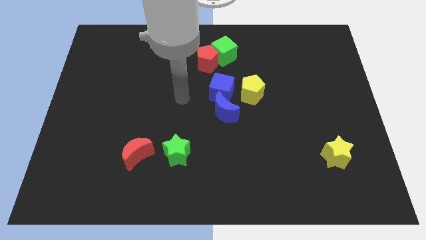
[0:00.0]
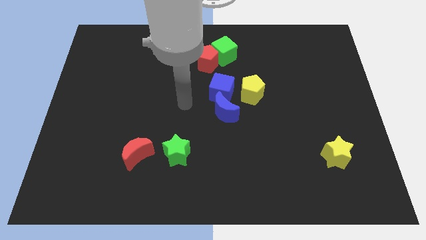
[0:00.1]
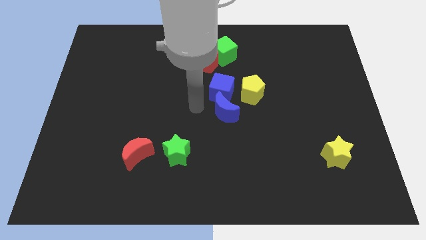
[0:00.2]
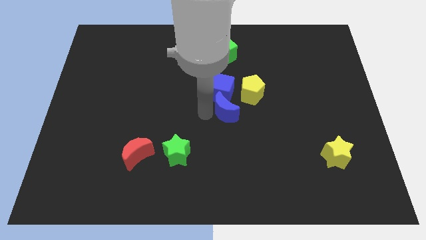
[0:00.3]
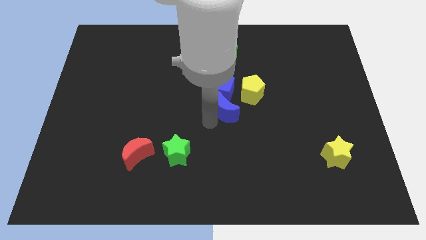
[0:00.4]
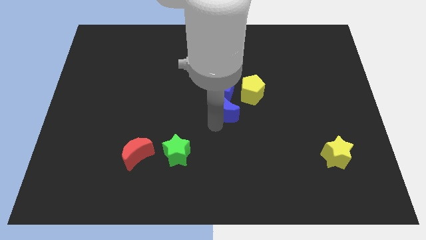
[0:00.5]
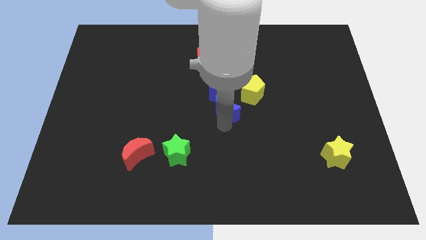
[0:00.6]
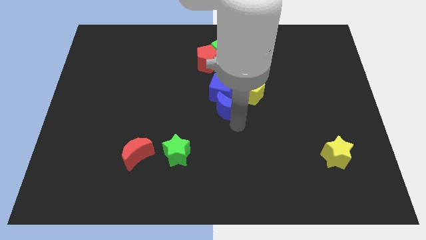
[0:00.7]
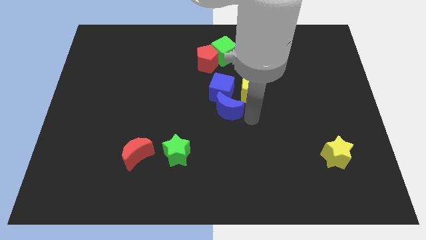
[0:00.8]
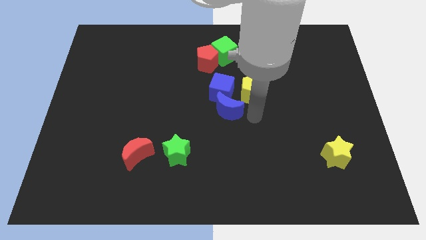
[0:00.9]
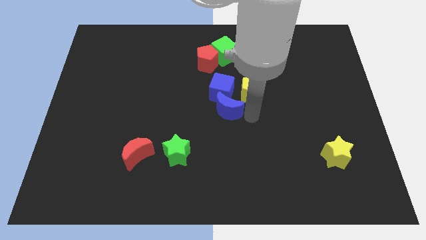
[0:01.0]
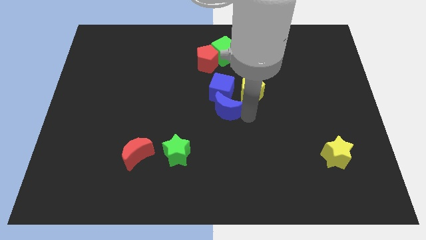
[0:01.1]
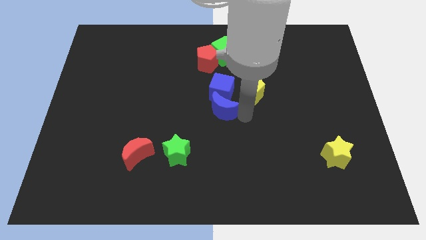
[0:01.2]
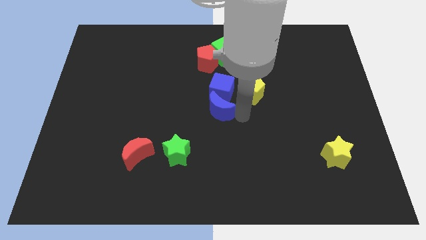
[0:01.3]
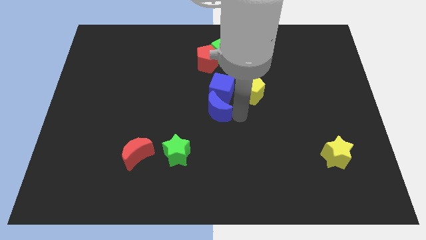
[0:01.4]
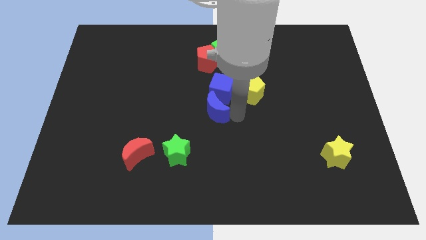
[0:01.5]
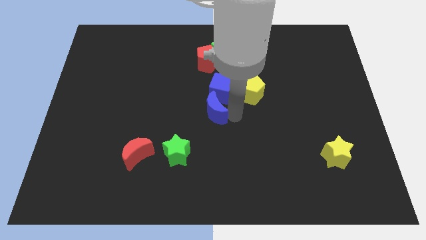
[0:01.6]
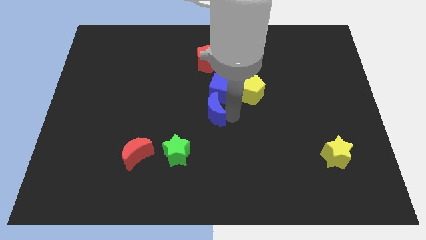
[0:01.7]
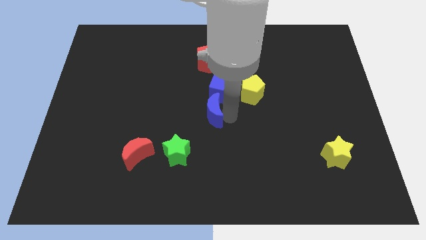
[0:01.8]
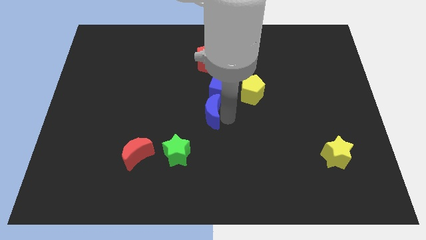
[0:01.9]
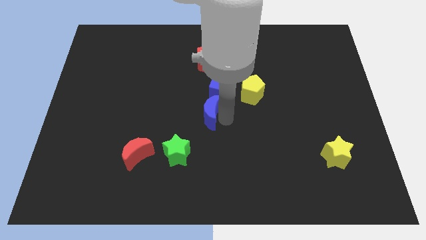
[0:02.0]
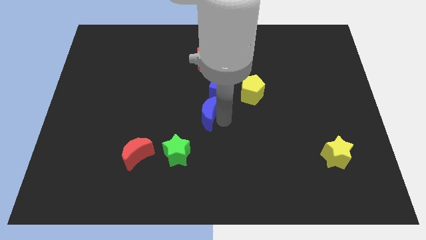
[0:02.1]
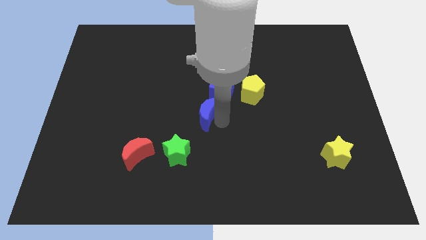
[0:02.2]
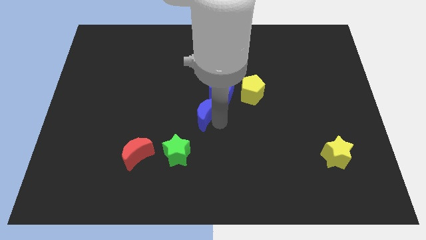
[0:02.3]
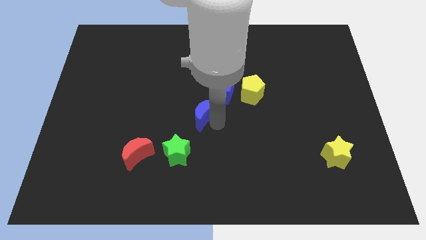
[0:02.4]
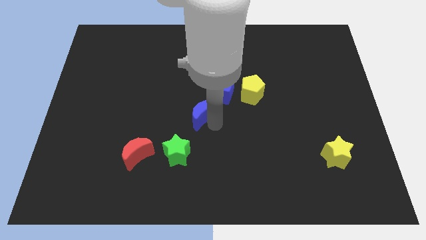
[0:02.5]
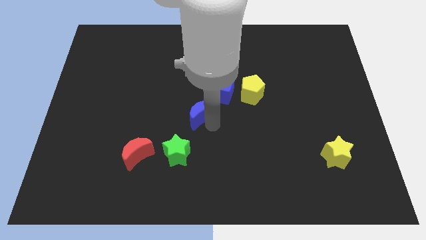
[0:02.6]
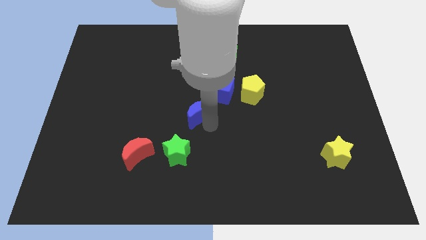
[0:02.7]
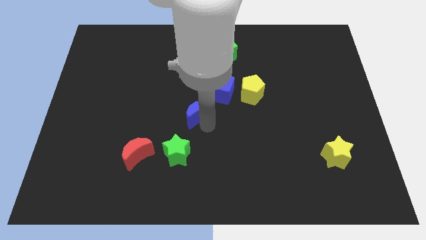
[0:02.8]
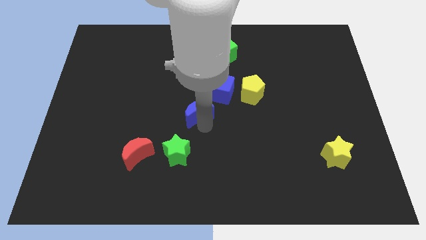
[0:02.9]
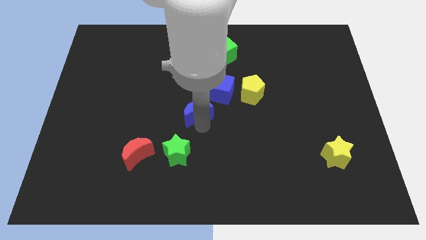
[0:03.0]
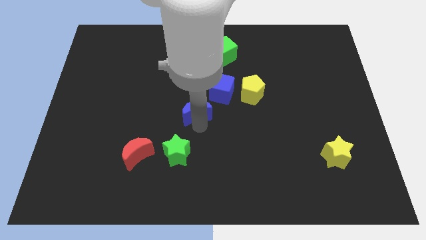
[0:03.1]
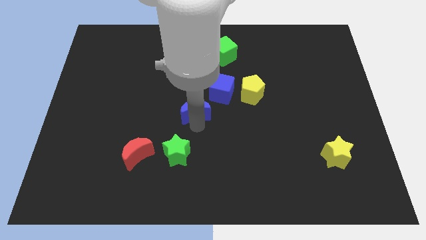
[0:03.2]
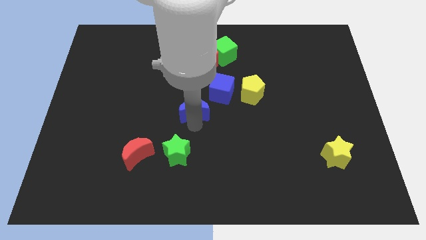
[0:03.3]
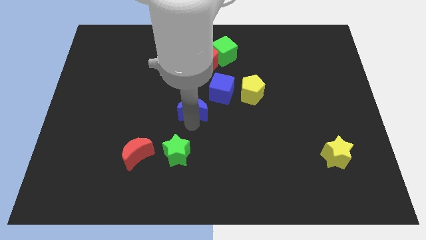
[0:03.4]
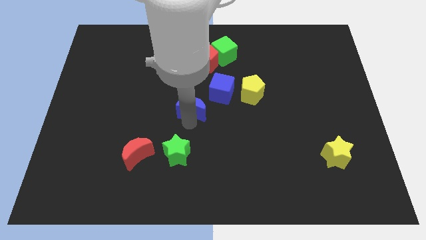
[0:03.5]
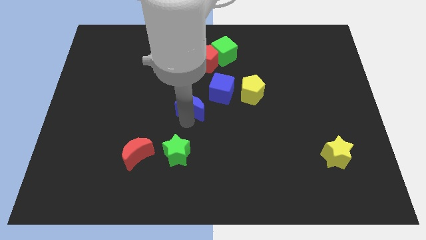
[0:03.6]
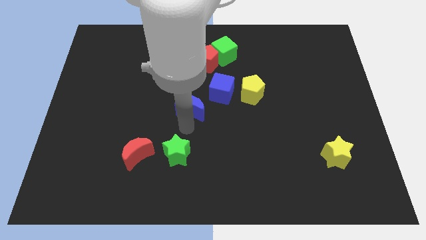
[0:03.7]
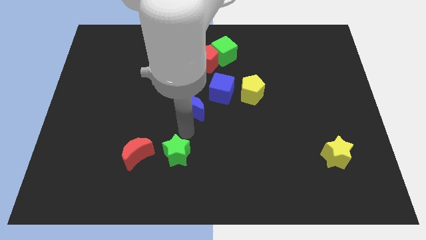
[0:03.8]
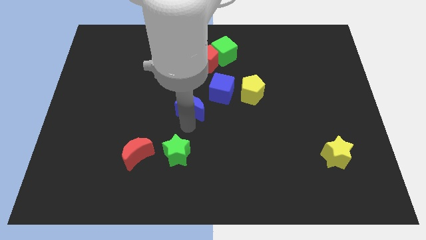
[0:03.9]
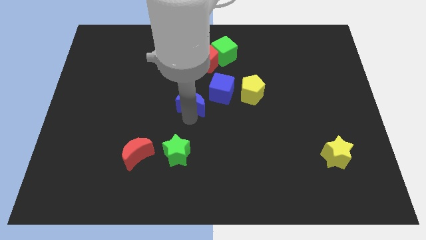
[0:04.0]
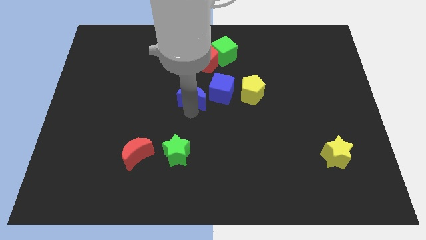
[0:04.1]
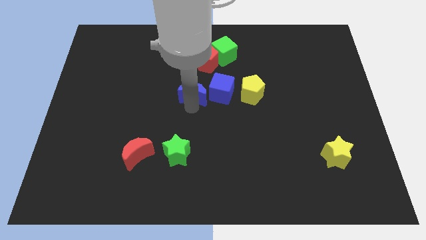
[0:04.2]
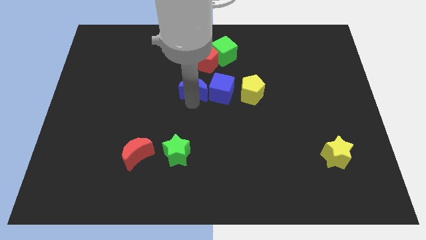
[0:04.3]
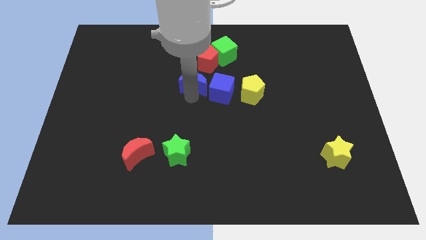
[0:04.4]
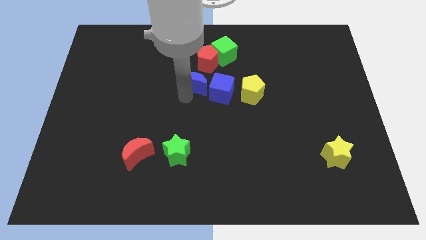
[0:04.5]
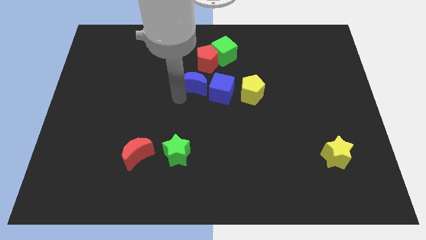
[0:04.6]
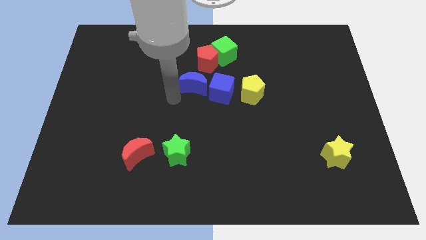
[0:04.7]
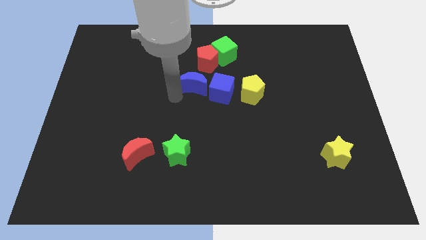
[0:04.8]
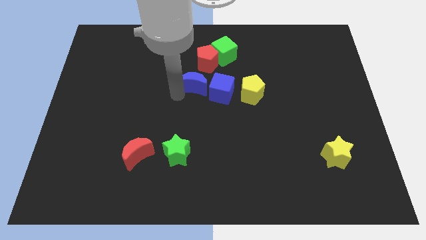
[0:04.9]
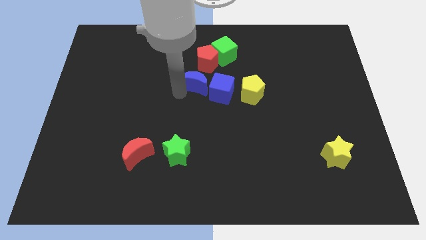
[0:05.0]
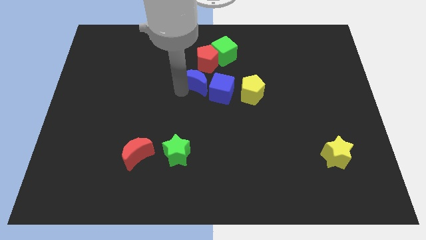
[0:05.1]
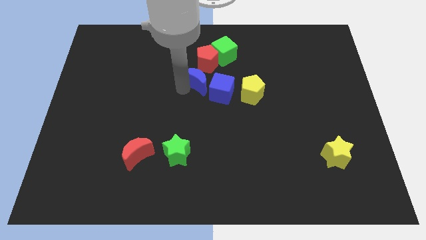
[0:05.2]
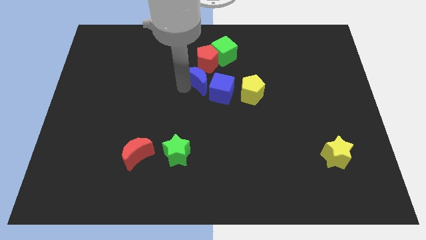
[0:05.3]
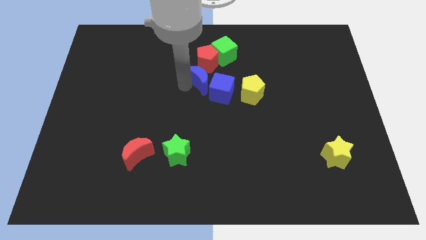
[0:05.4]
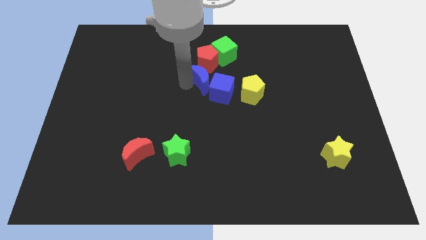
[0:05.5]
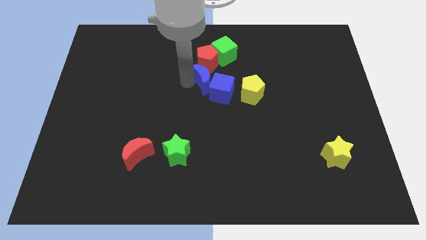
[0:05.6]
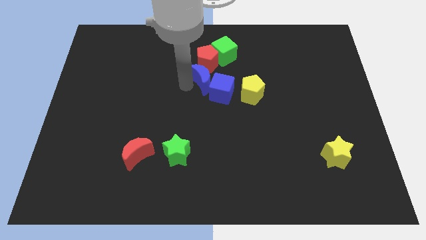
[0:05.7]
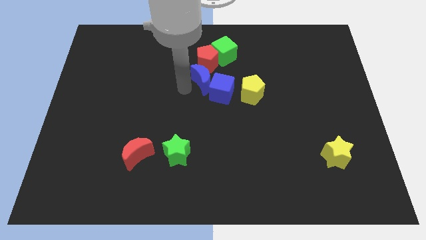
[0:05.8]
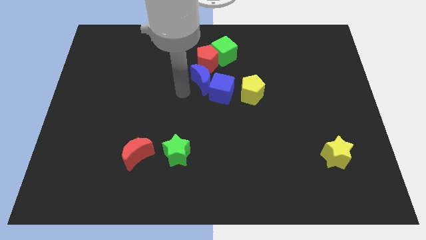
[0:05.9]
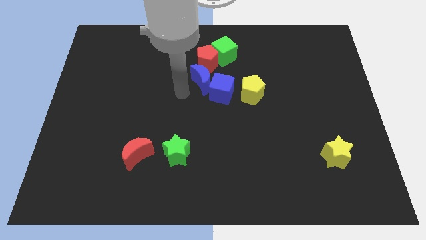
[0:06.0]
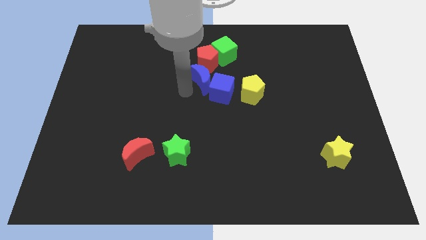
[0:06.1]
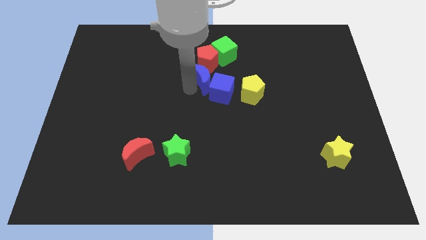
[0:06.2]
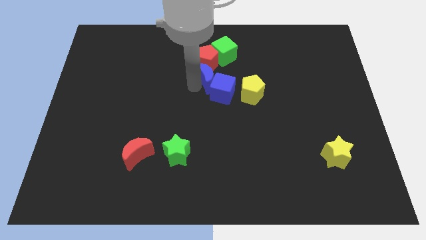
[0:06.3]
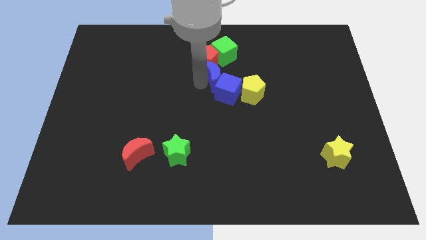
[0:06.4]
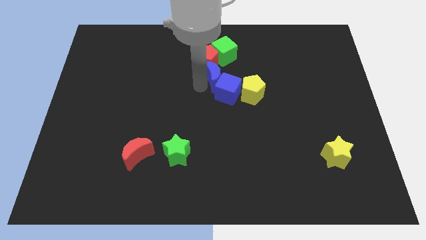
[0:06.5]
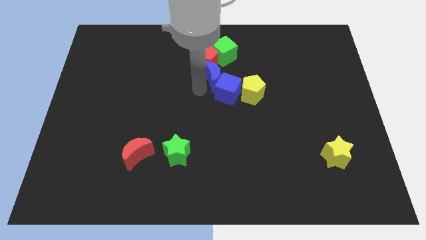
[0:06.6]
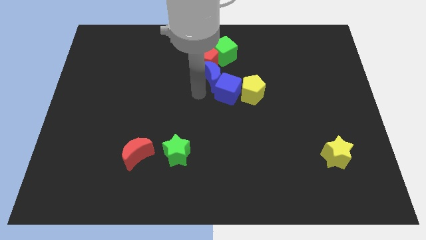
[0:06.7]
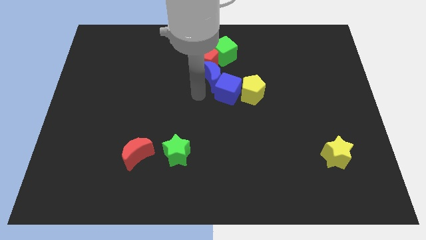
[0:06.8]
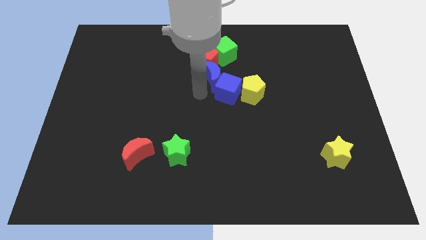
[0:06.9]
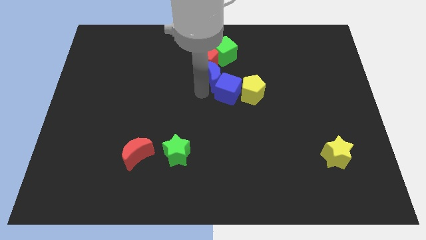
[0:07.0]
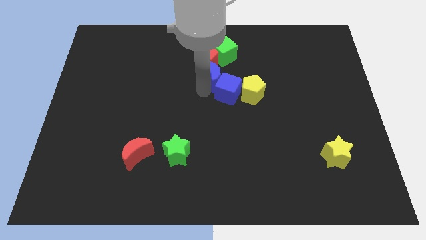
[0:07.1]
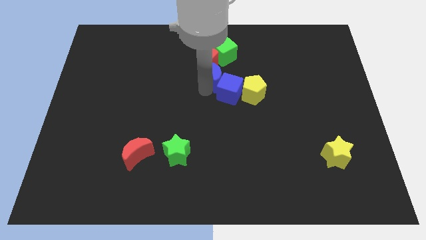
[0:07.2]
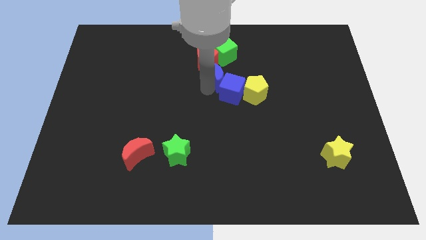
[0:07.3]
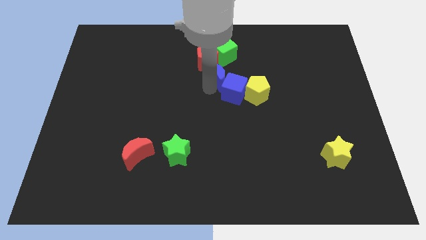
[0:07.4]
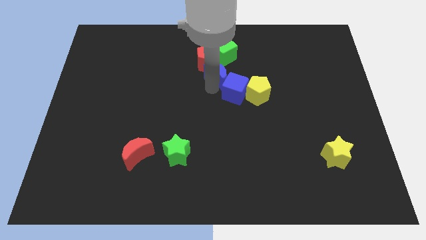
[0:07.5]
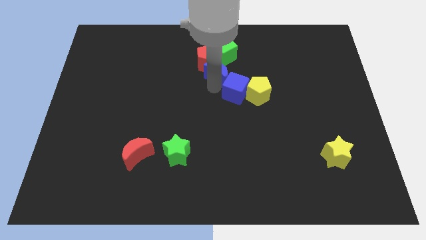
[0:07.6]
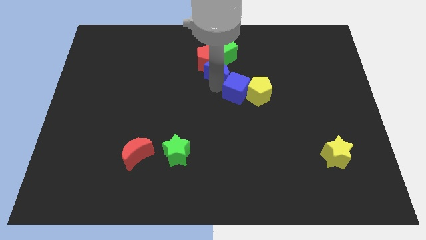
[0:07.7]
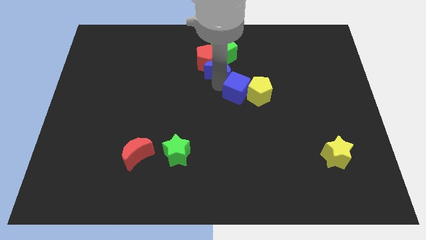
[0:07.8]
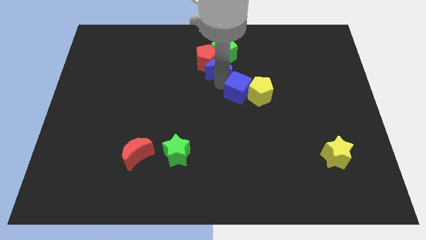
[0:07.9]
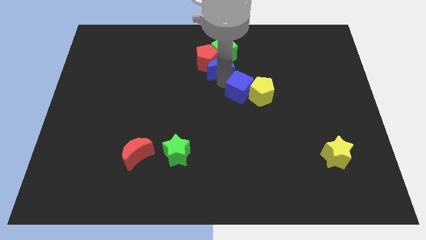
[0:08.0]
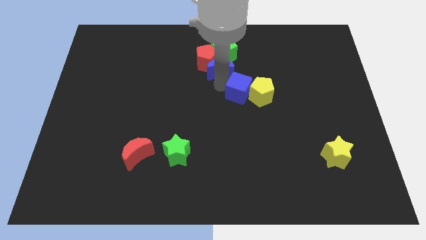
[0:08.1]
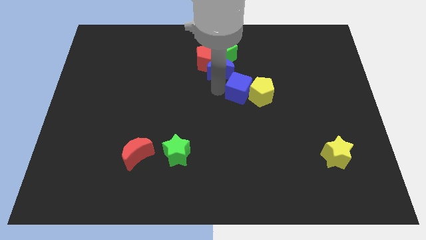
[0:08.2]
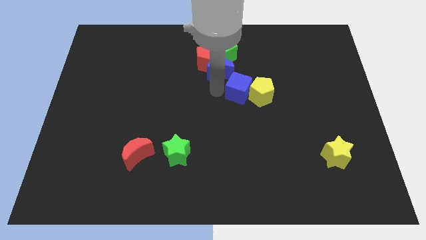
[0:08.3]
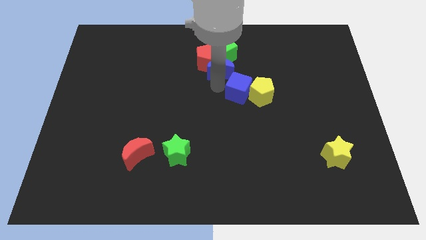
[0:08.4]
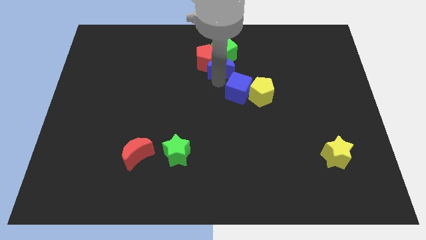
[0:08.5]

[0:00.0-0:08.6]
slide the blue moon to the green cube
